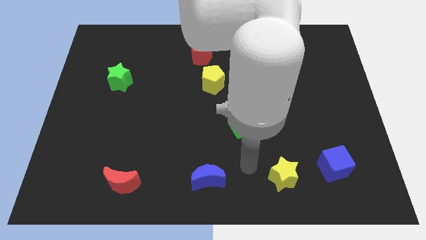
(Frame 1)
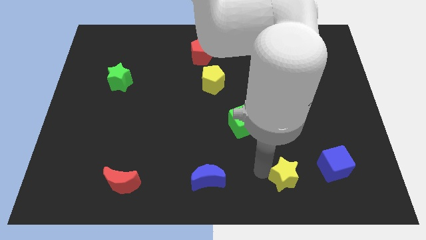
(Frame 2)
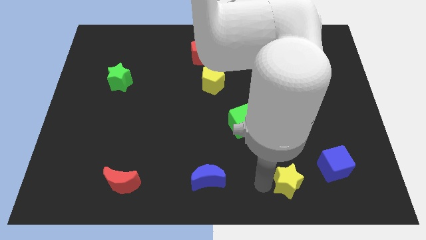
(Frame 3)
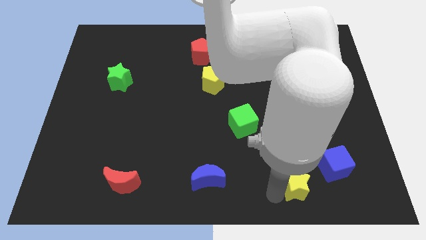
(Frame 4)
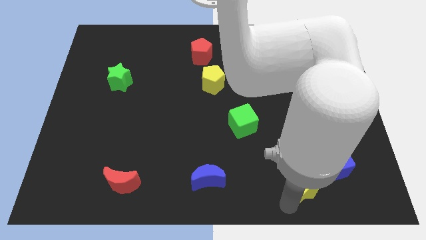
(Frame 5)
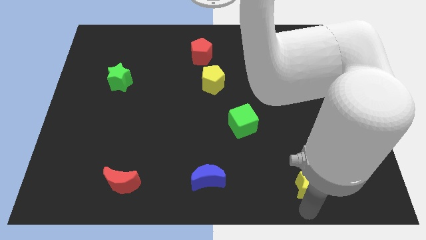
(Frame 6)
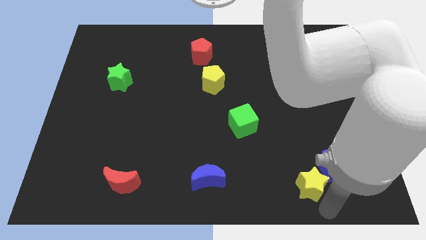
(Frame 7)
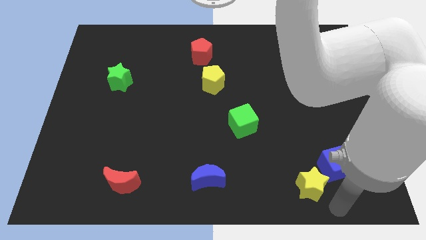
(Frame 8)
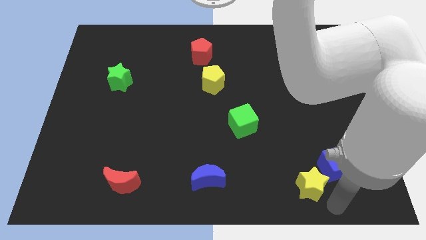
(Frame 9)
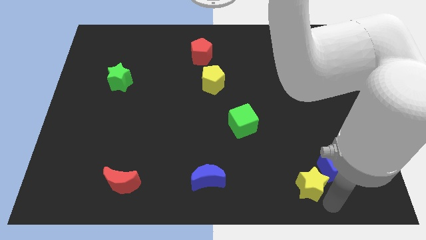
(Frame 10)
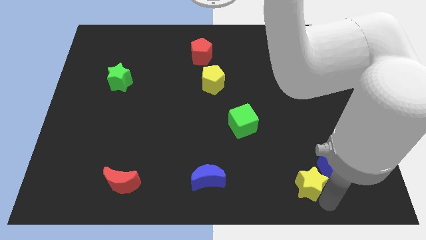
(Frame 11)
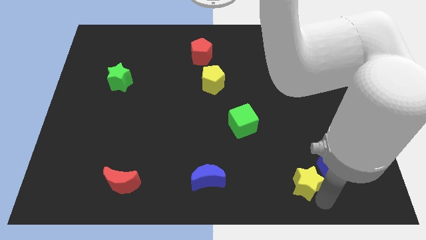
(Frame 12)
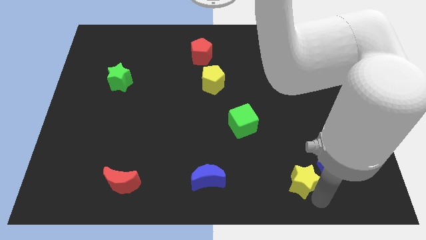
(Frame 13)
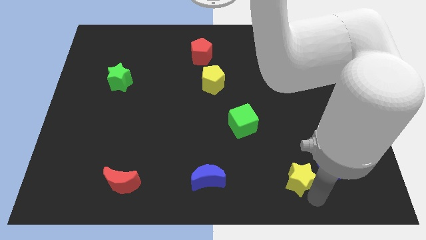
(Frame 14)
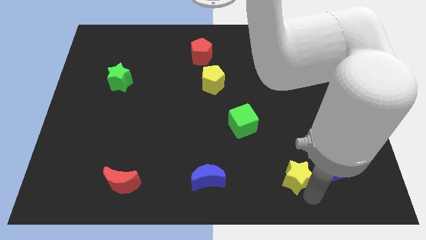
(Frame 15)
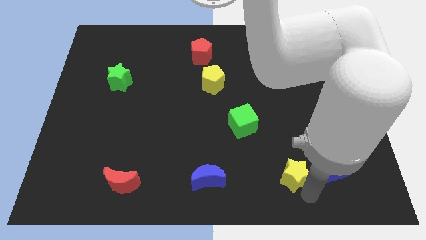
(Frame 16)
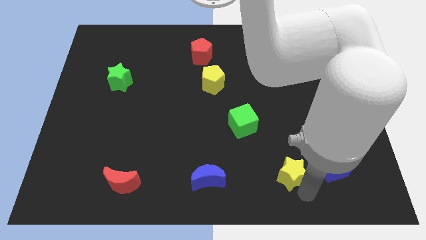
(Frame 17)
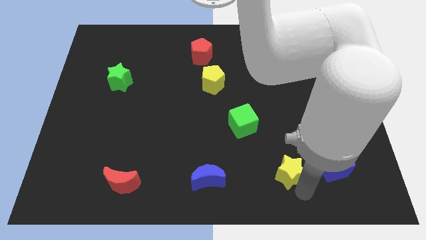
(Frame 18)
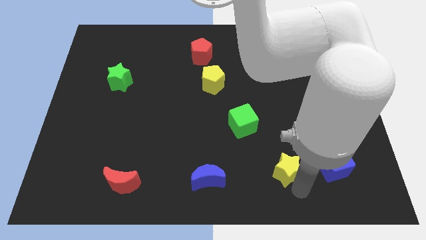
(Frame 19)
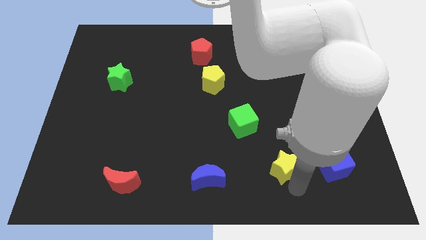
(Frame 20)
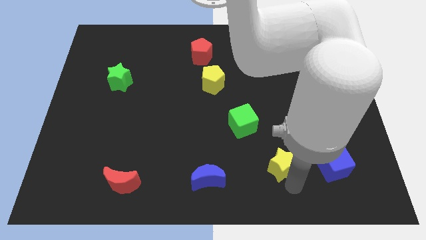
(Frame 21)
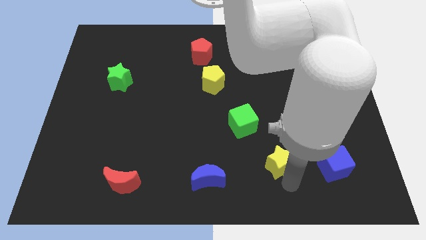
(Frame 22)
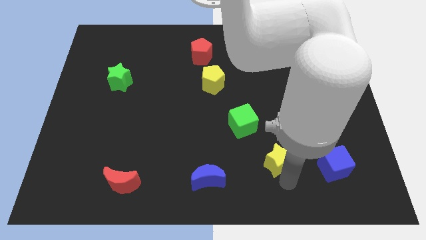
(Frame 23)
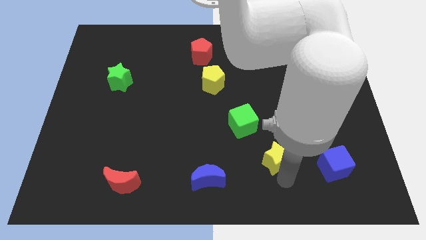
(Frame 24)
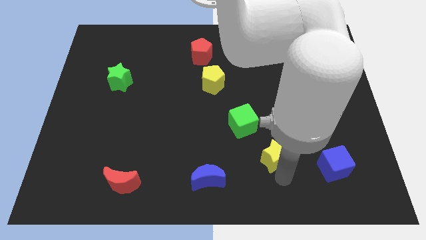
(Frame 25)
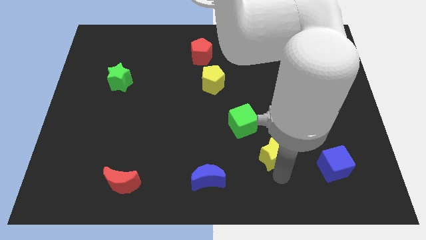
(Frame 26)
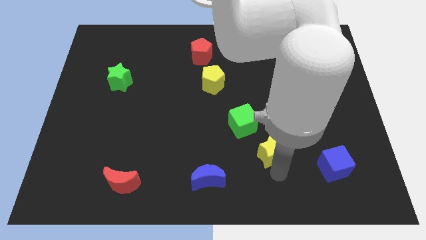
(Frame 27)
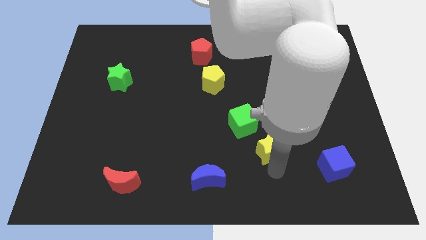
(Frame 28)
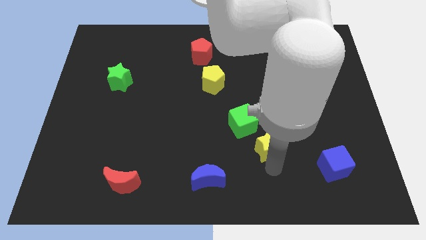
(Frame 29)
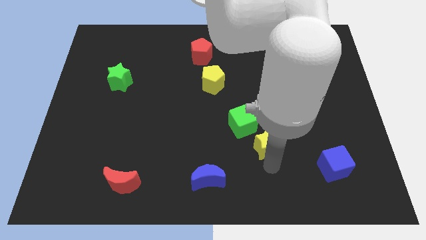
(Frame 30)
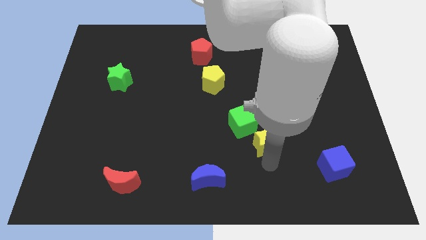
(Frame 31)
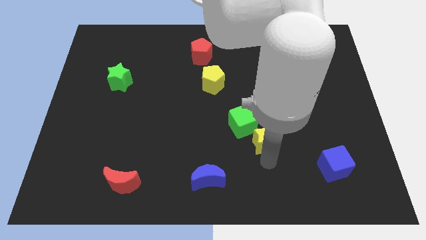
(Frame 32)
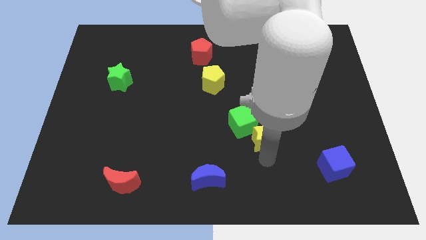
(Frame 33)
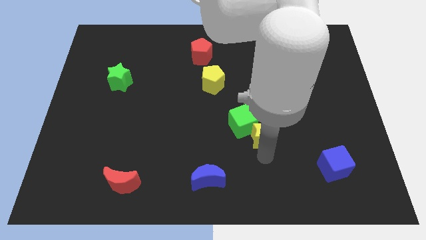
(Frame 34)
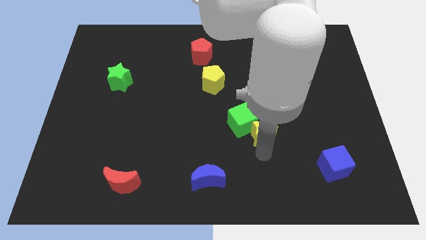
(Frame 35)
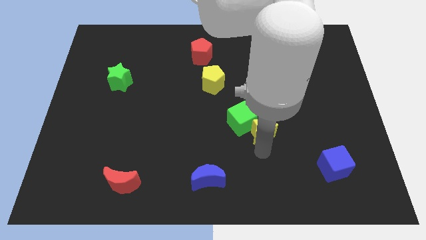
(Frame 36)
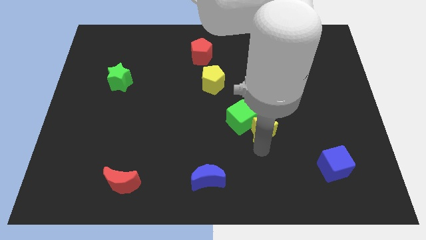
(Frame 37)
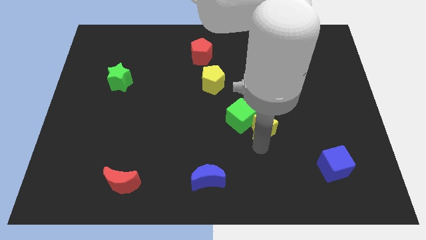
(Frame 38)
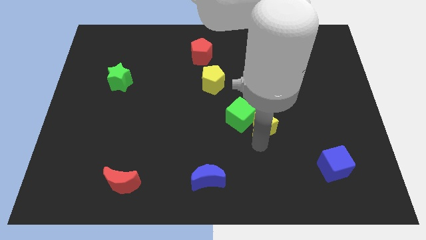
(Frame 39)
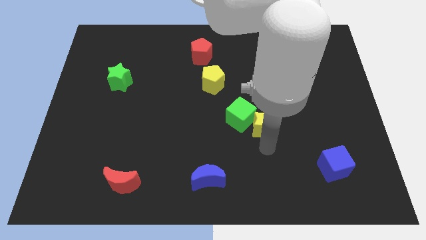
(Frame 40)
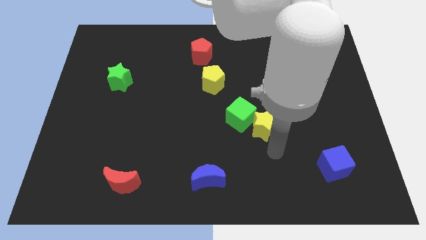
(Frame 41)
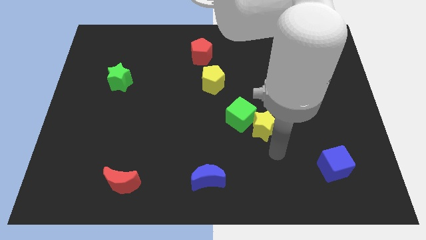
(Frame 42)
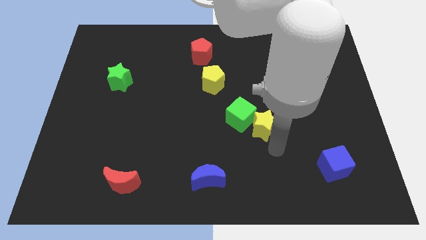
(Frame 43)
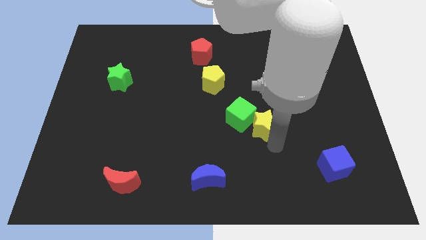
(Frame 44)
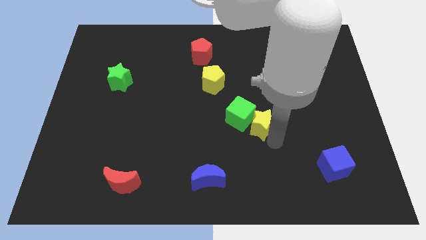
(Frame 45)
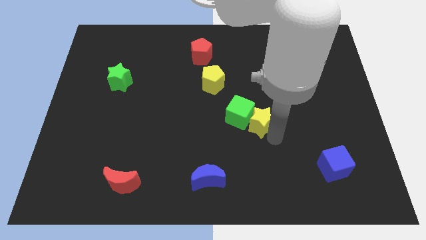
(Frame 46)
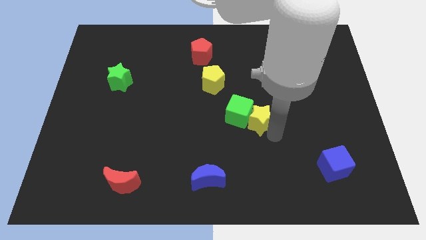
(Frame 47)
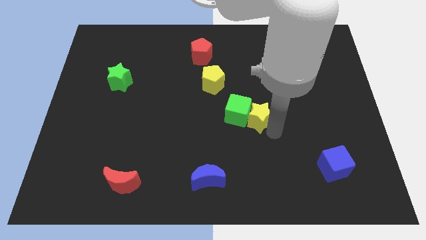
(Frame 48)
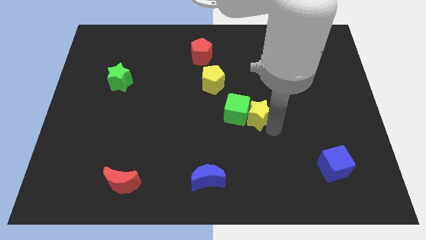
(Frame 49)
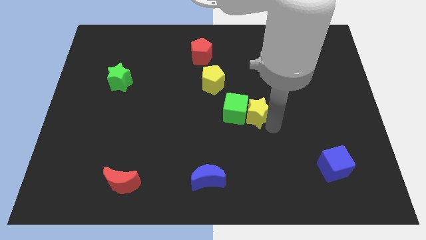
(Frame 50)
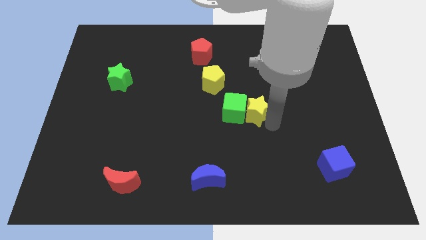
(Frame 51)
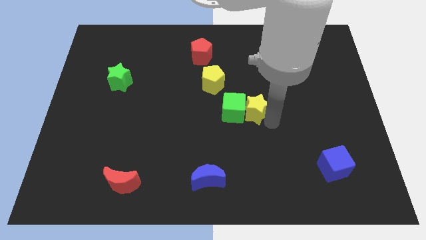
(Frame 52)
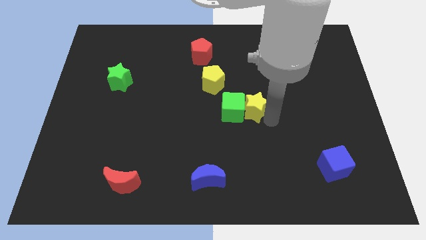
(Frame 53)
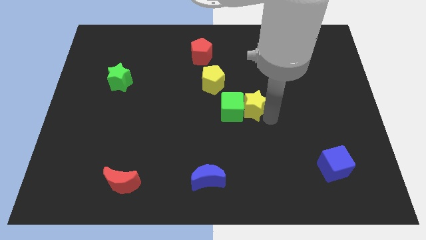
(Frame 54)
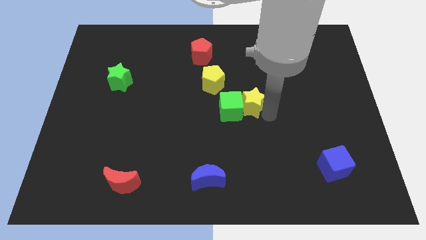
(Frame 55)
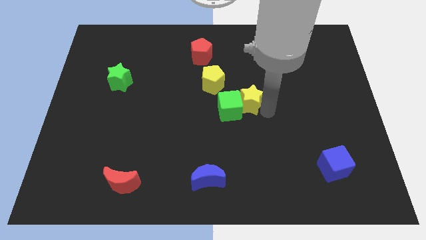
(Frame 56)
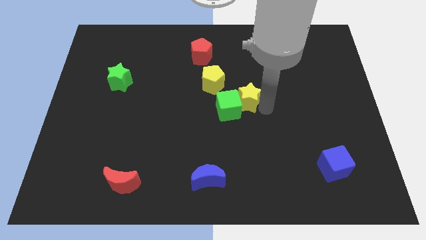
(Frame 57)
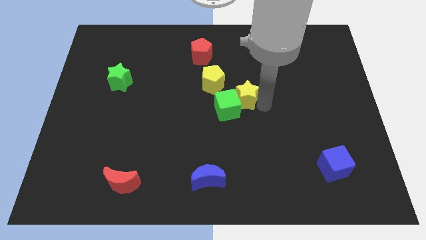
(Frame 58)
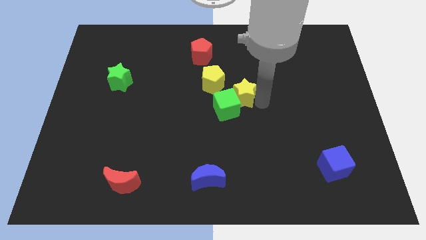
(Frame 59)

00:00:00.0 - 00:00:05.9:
put the yellow star above the green cube

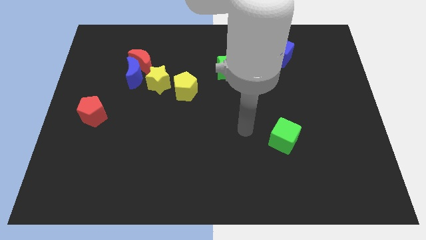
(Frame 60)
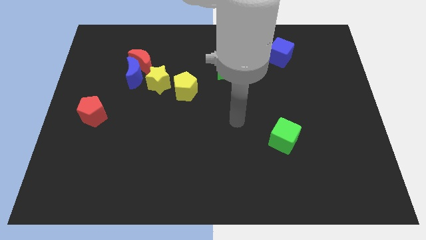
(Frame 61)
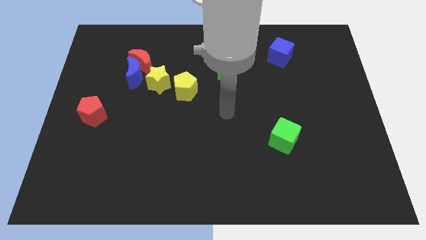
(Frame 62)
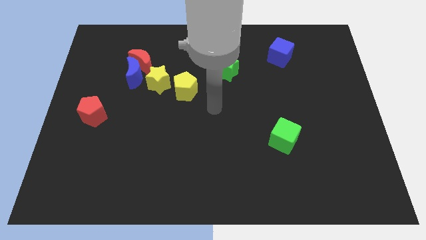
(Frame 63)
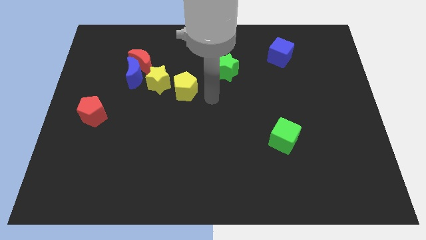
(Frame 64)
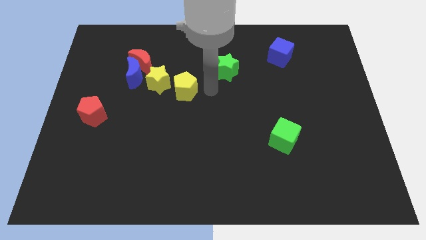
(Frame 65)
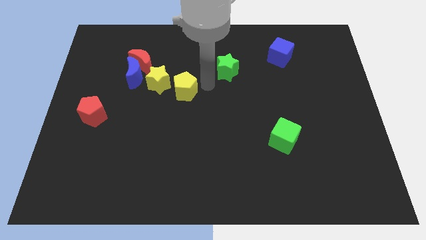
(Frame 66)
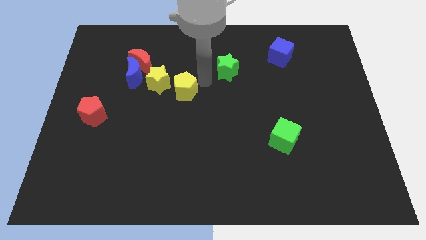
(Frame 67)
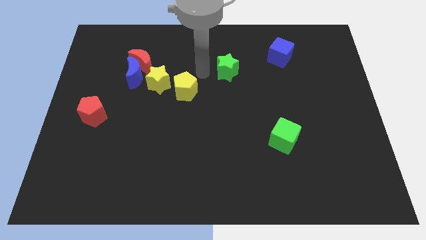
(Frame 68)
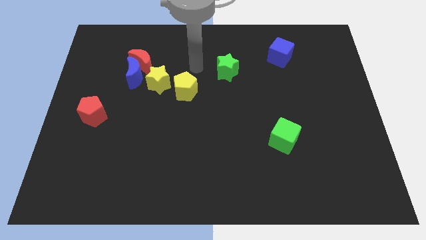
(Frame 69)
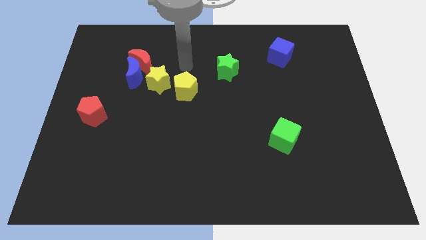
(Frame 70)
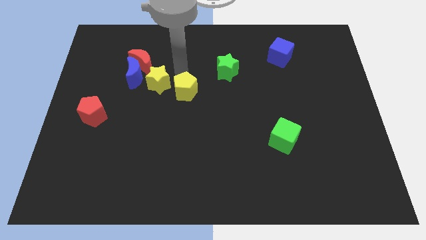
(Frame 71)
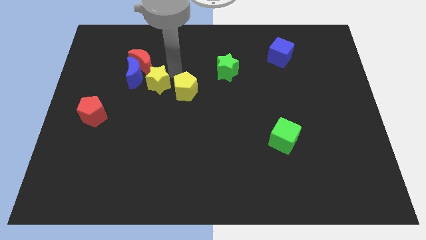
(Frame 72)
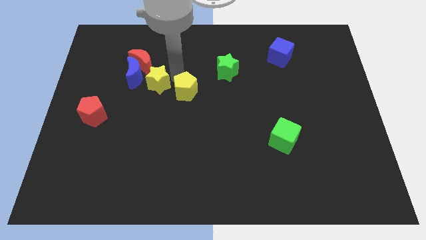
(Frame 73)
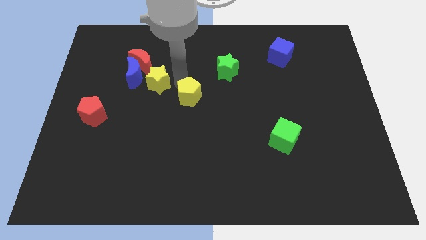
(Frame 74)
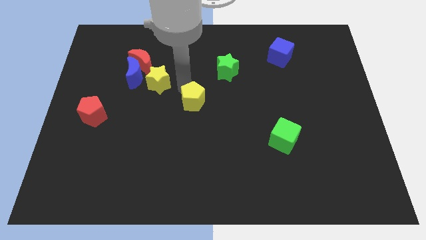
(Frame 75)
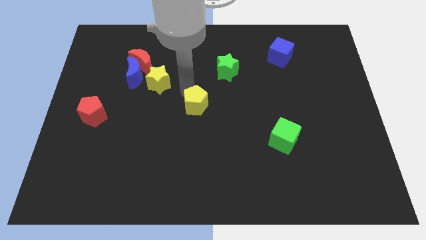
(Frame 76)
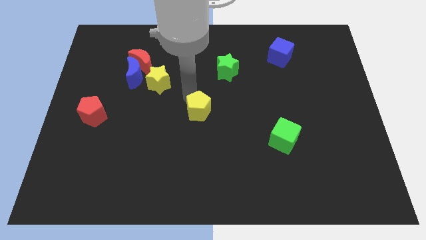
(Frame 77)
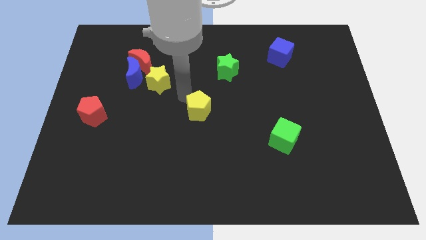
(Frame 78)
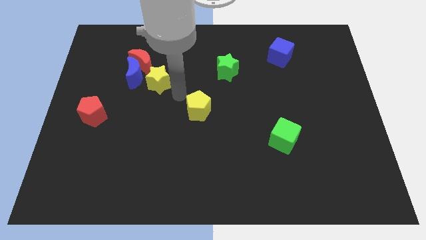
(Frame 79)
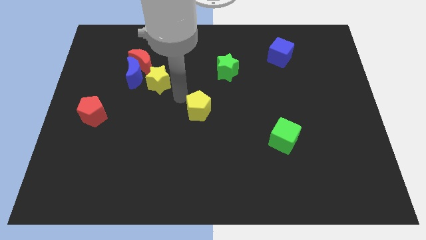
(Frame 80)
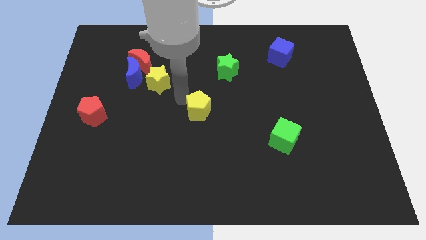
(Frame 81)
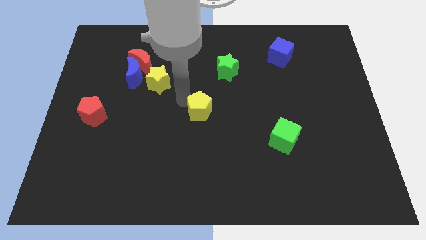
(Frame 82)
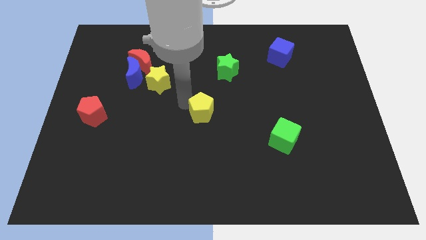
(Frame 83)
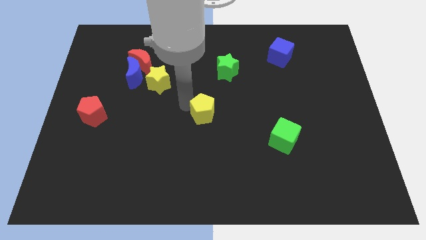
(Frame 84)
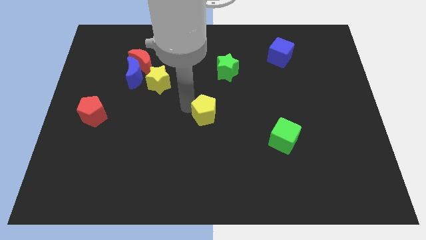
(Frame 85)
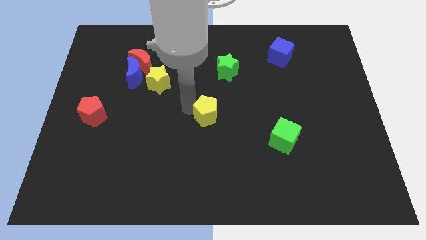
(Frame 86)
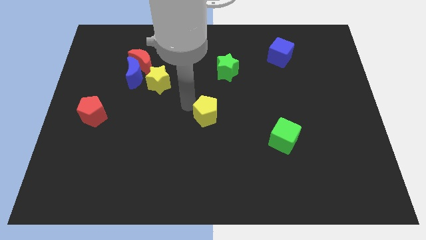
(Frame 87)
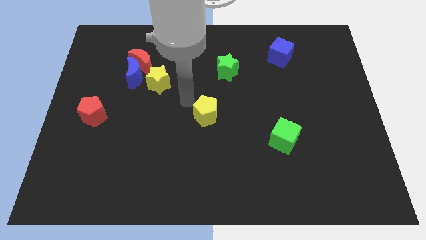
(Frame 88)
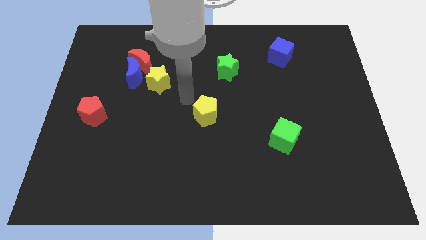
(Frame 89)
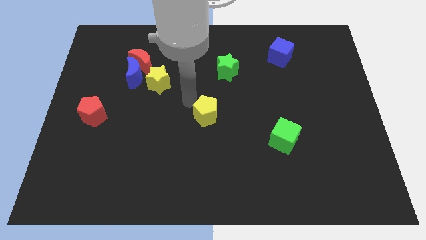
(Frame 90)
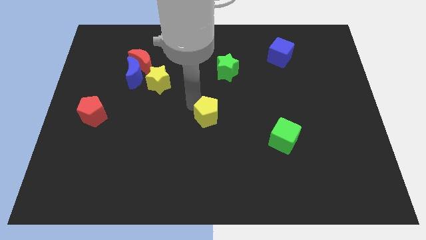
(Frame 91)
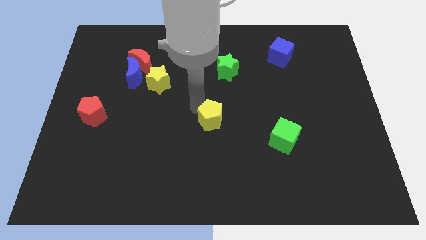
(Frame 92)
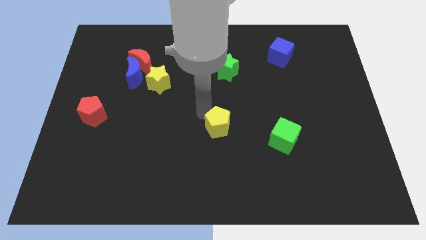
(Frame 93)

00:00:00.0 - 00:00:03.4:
move the yellow pentagon just left of the green cube
